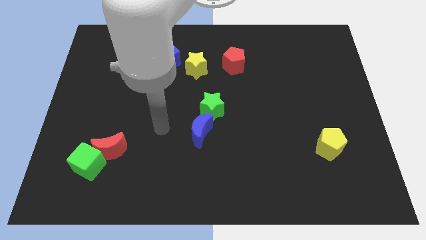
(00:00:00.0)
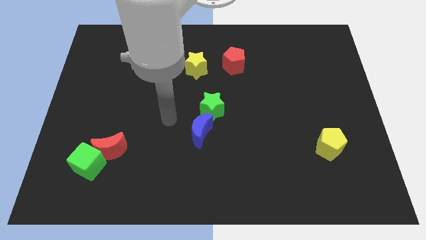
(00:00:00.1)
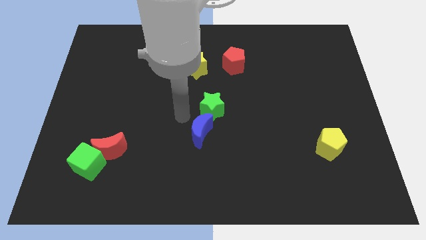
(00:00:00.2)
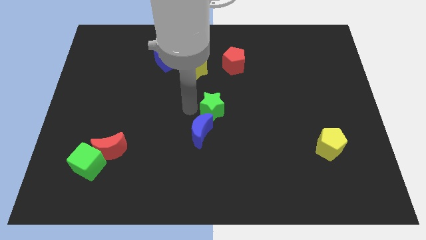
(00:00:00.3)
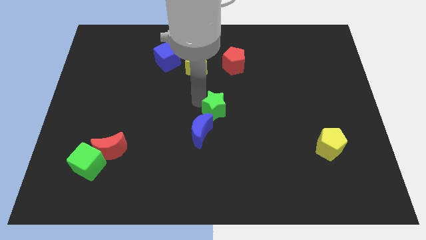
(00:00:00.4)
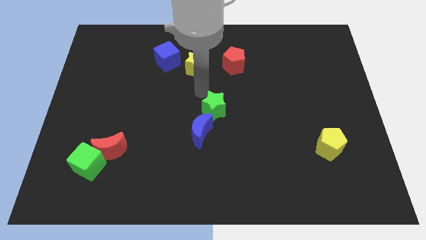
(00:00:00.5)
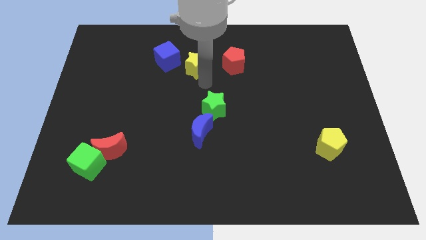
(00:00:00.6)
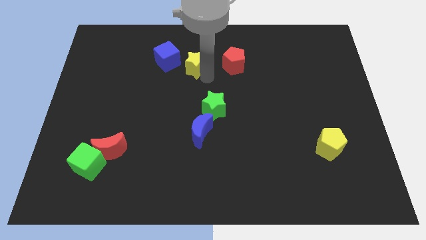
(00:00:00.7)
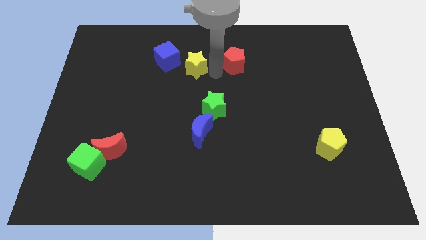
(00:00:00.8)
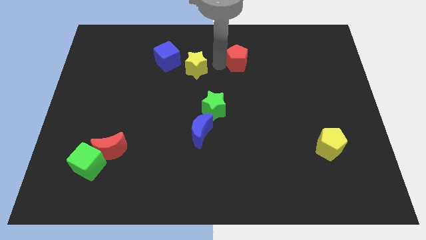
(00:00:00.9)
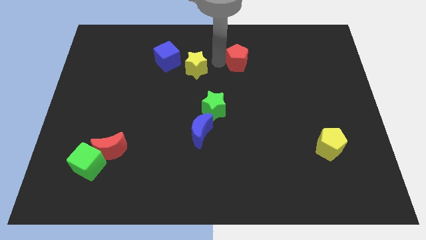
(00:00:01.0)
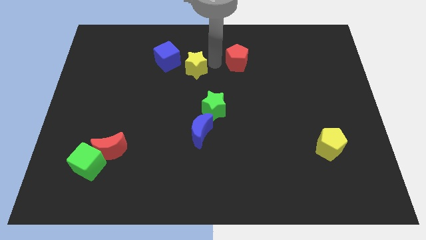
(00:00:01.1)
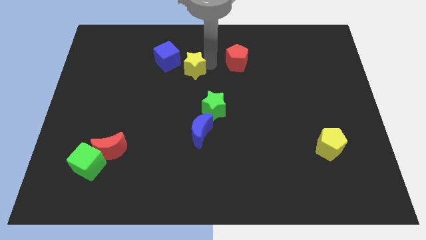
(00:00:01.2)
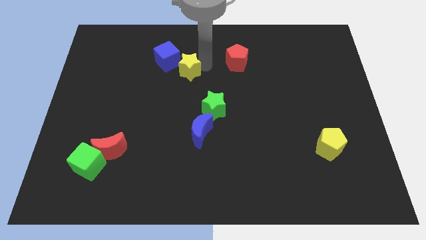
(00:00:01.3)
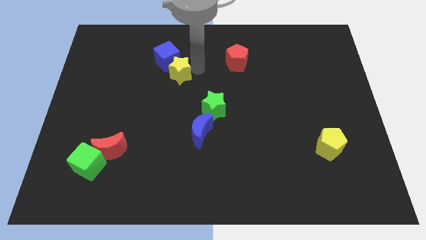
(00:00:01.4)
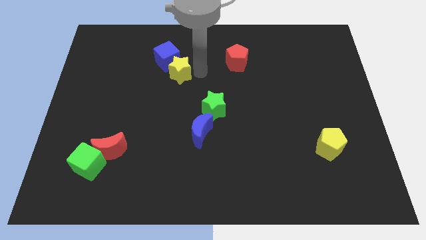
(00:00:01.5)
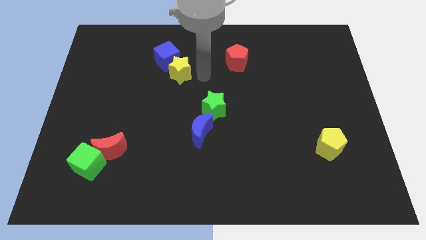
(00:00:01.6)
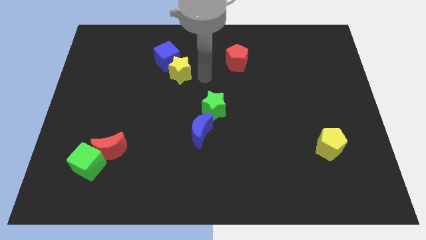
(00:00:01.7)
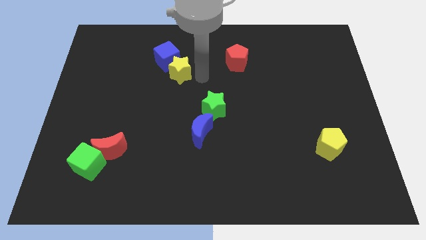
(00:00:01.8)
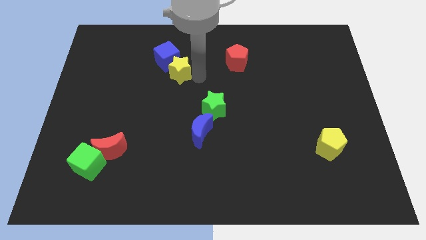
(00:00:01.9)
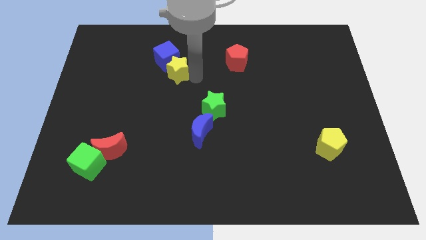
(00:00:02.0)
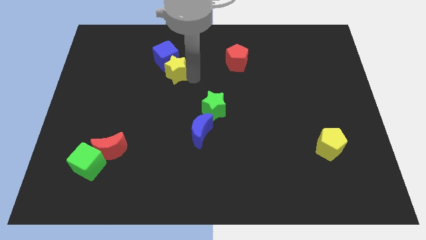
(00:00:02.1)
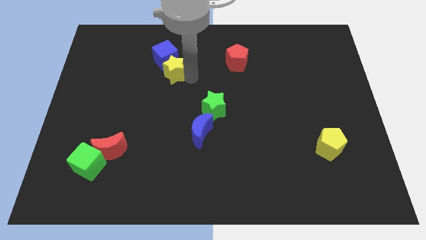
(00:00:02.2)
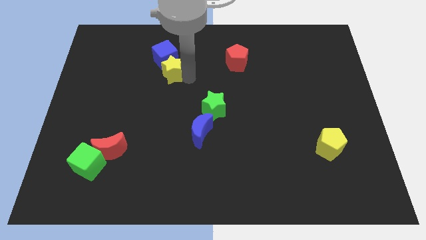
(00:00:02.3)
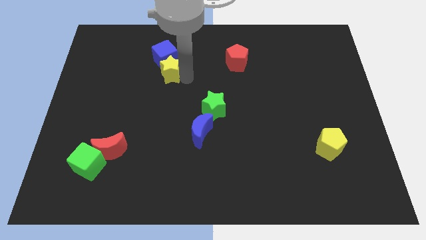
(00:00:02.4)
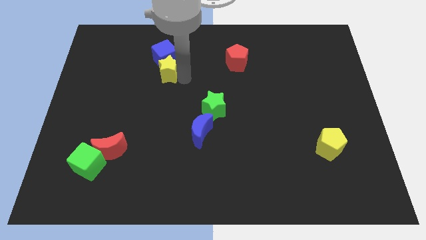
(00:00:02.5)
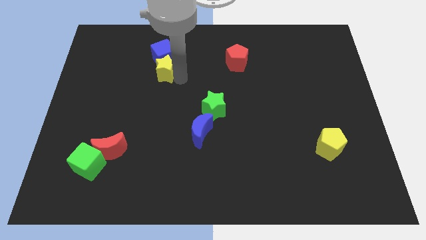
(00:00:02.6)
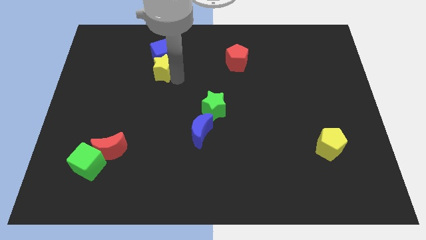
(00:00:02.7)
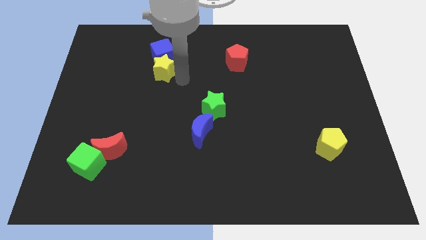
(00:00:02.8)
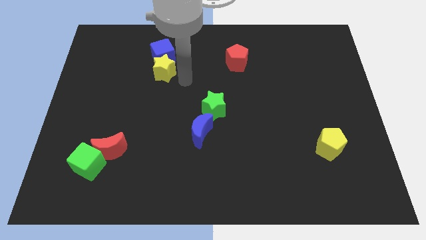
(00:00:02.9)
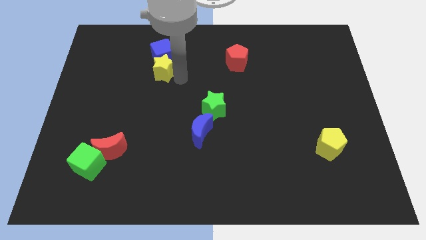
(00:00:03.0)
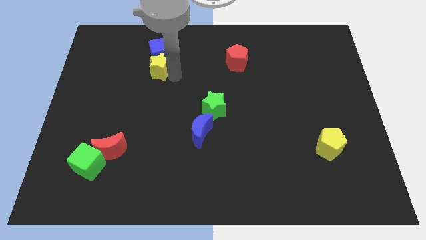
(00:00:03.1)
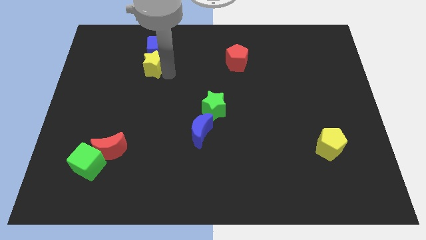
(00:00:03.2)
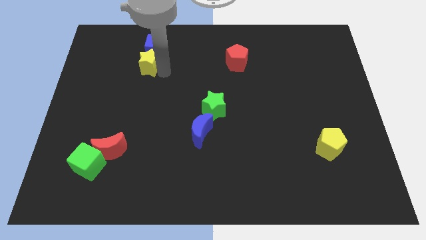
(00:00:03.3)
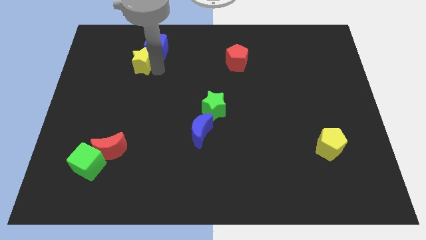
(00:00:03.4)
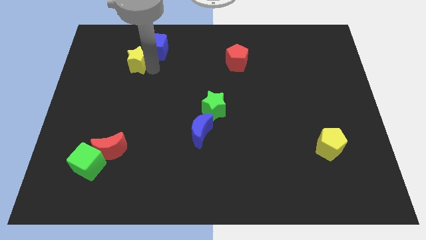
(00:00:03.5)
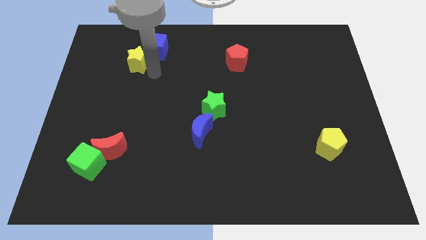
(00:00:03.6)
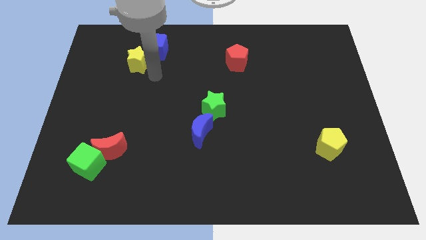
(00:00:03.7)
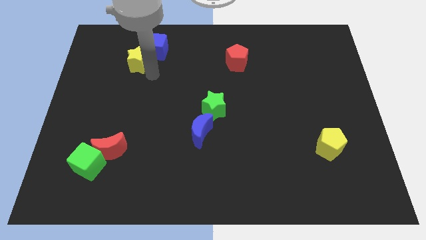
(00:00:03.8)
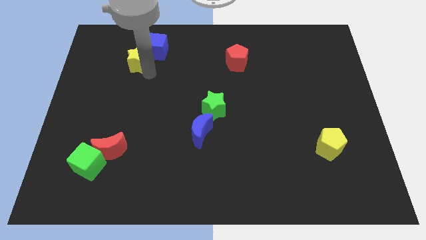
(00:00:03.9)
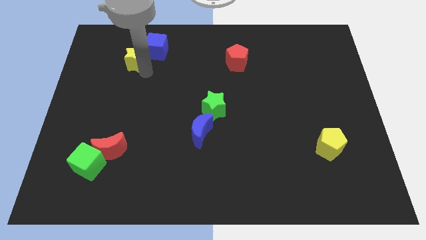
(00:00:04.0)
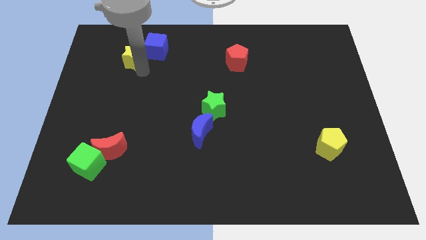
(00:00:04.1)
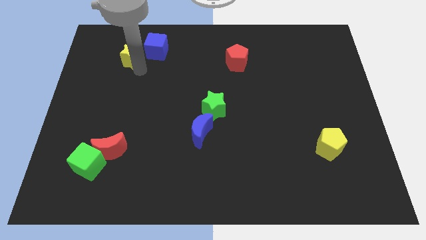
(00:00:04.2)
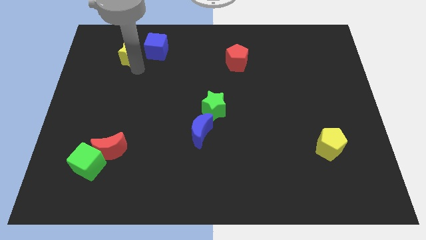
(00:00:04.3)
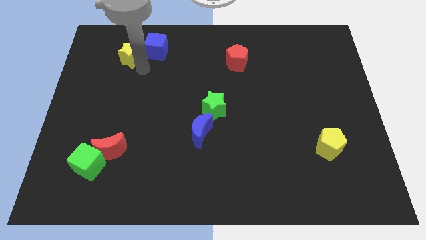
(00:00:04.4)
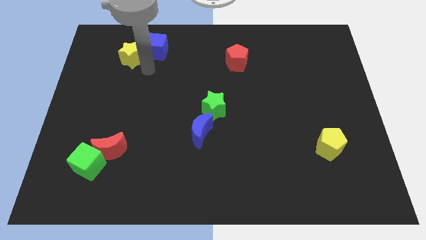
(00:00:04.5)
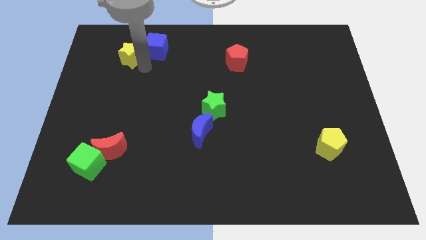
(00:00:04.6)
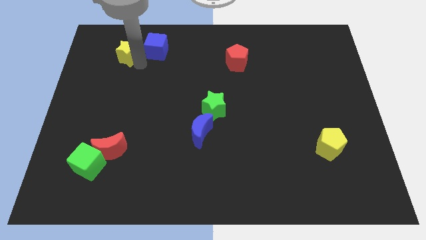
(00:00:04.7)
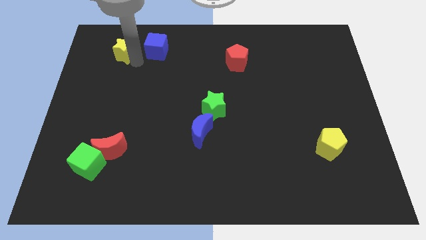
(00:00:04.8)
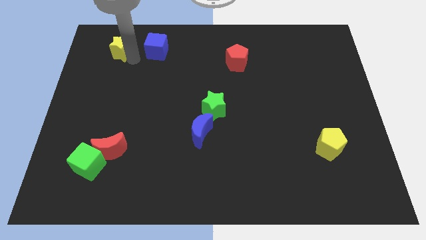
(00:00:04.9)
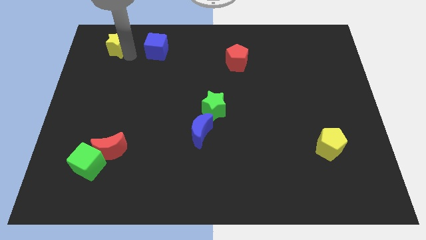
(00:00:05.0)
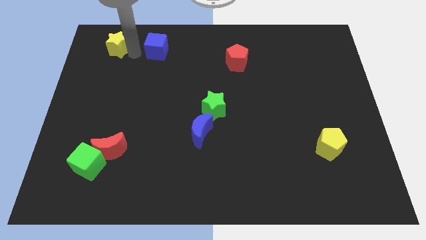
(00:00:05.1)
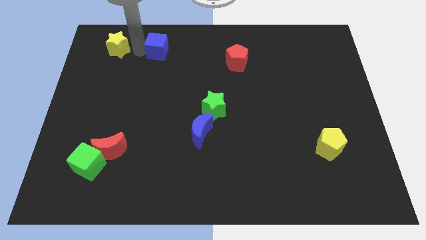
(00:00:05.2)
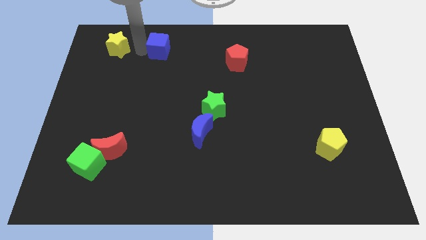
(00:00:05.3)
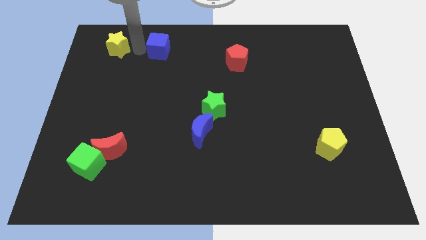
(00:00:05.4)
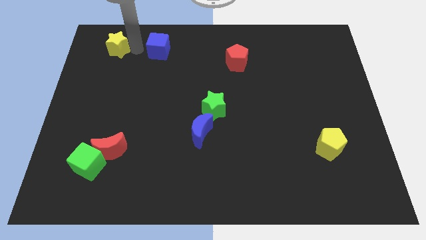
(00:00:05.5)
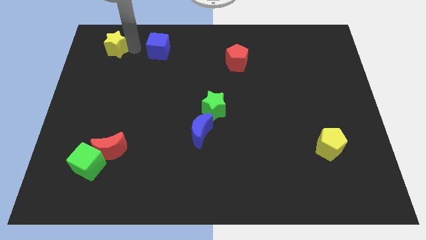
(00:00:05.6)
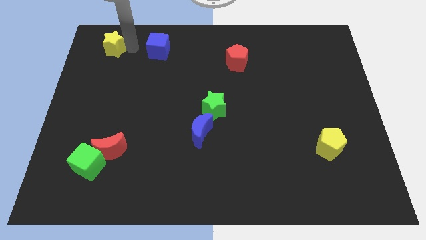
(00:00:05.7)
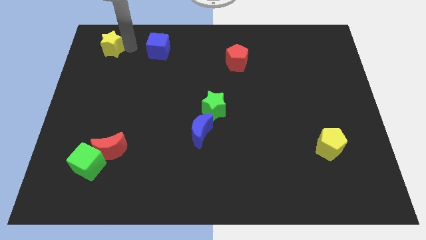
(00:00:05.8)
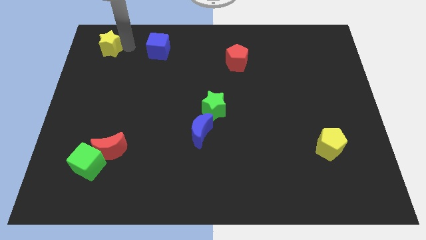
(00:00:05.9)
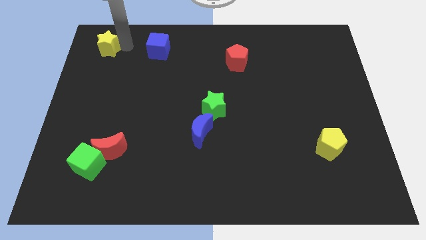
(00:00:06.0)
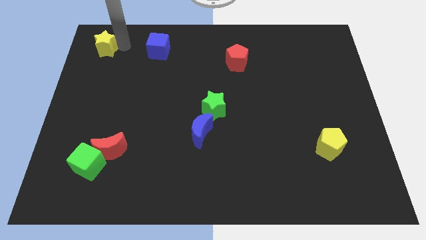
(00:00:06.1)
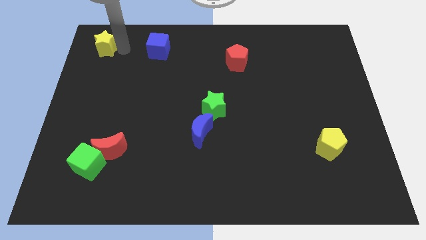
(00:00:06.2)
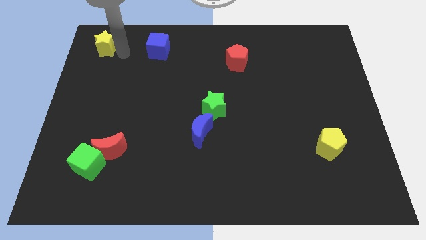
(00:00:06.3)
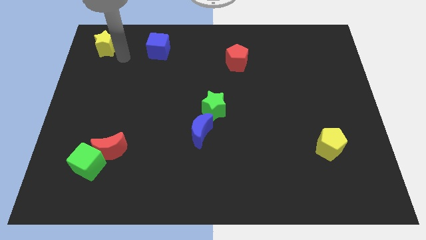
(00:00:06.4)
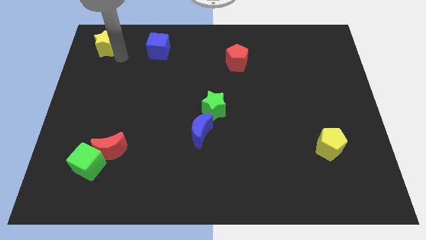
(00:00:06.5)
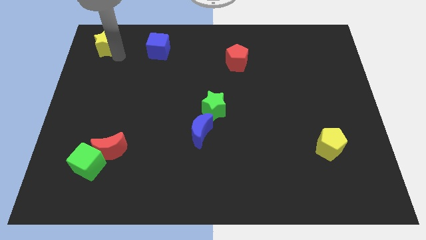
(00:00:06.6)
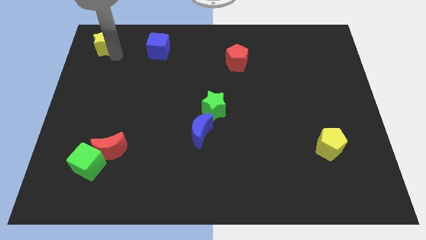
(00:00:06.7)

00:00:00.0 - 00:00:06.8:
push the yellow star to the top left corner

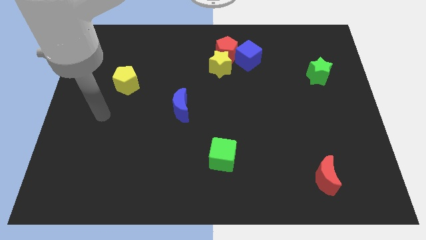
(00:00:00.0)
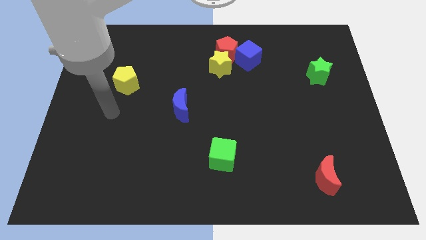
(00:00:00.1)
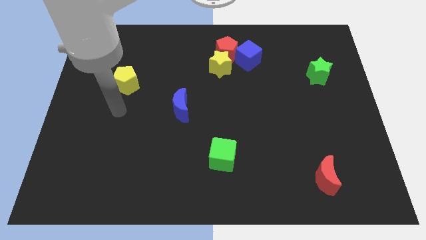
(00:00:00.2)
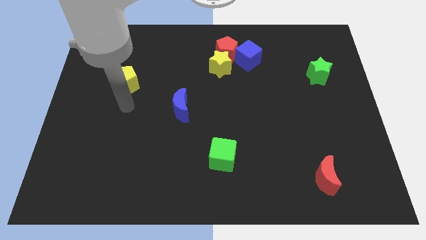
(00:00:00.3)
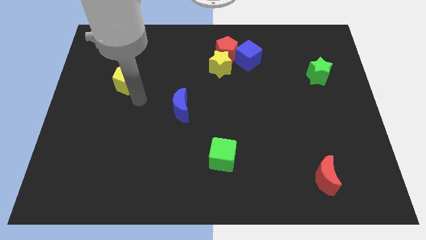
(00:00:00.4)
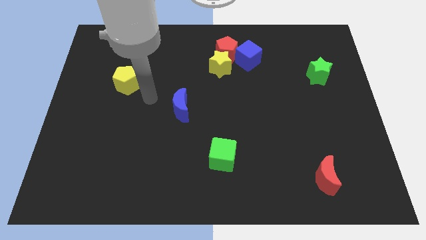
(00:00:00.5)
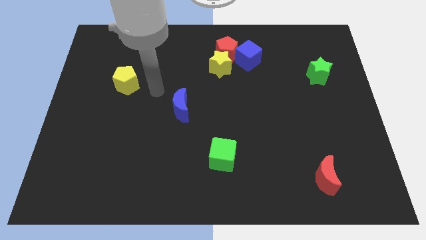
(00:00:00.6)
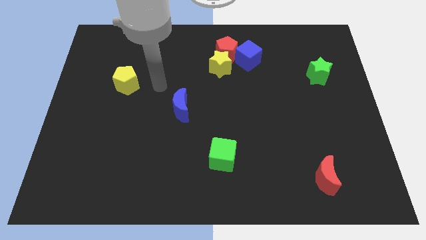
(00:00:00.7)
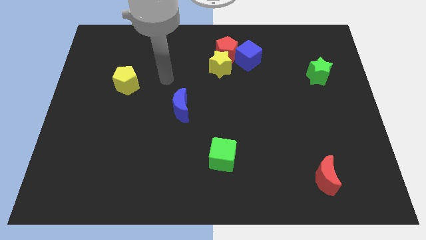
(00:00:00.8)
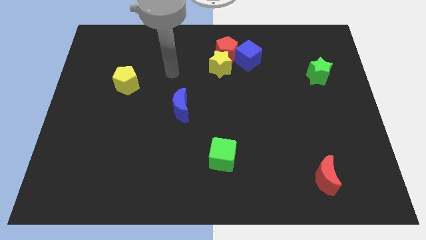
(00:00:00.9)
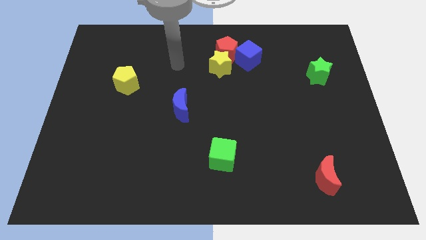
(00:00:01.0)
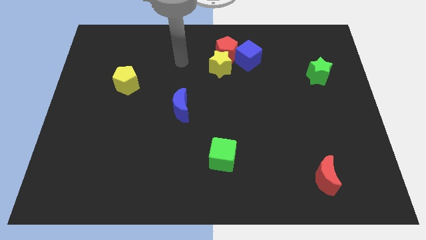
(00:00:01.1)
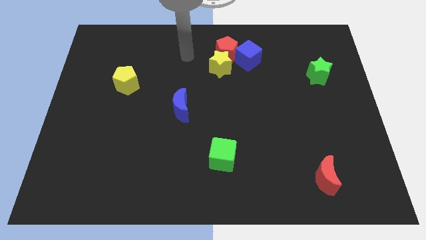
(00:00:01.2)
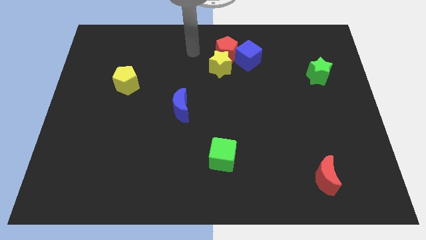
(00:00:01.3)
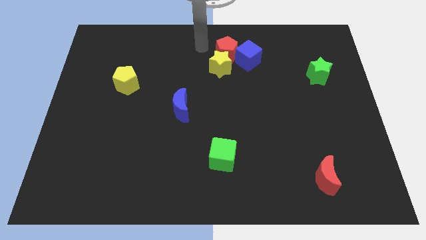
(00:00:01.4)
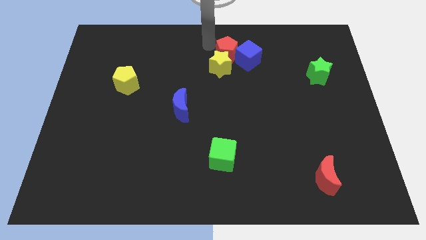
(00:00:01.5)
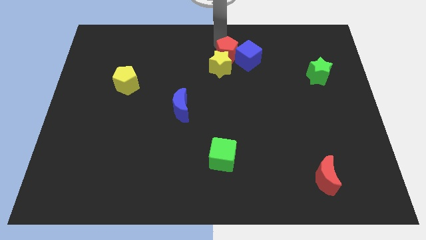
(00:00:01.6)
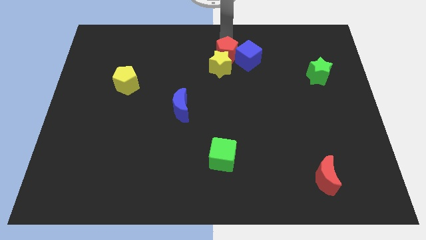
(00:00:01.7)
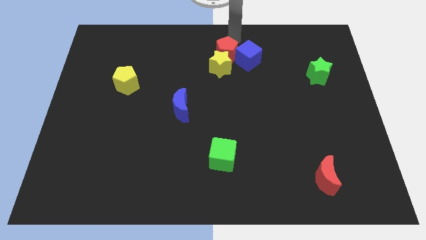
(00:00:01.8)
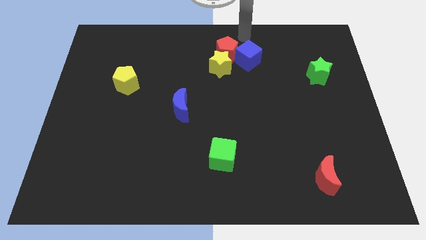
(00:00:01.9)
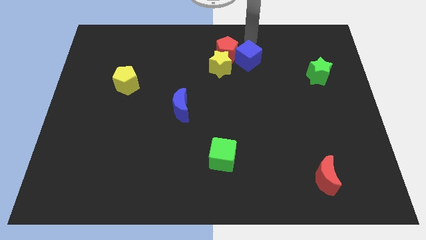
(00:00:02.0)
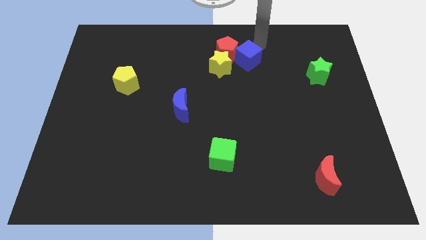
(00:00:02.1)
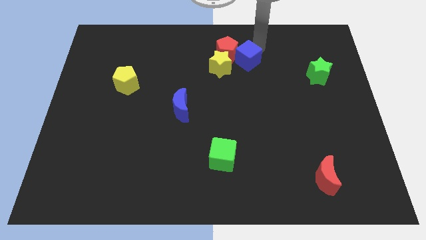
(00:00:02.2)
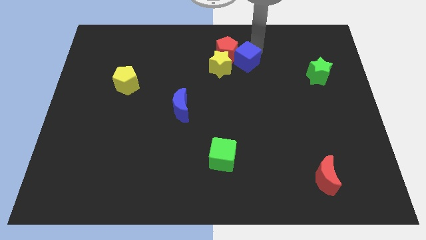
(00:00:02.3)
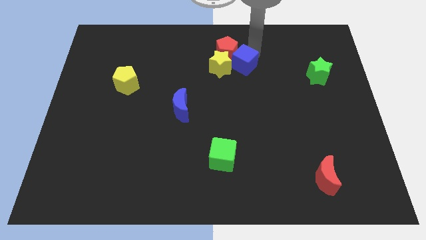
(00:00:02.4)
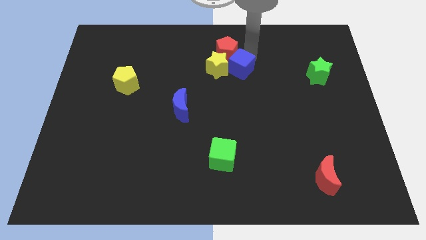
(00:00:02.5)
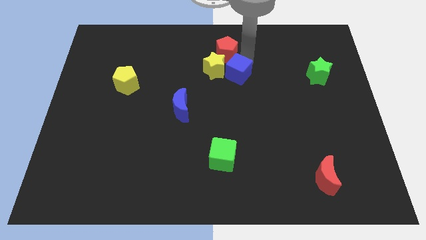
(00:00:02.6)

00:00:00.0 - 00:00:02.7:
move the blue cube to the middle
